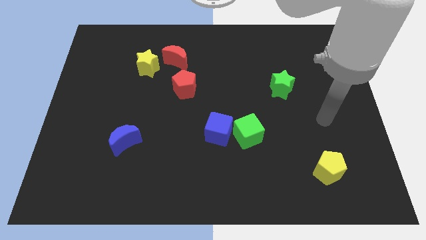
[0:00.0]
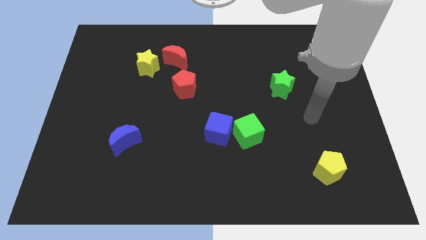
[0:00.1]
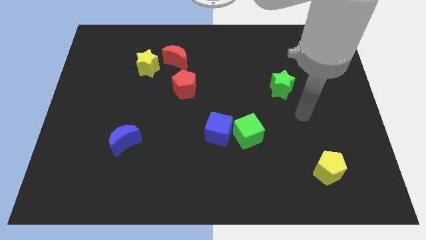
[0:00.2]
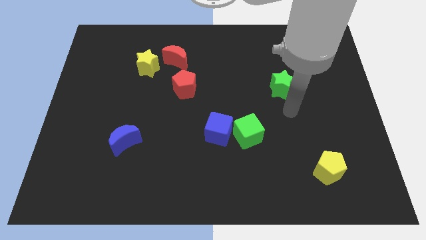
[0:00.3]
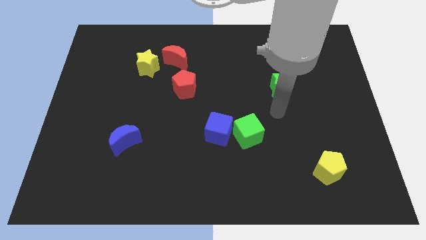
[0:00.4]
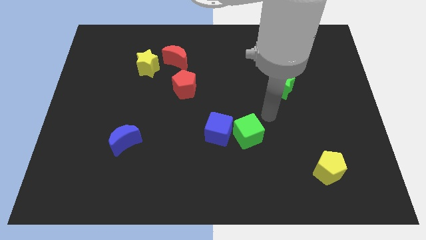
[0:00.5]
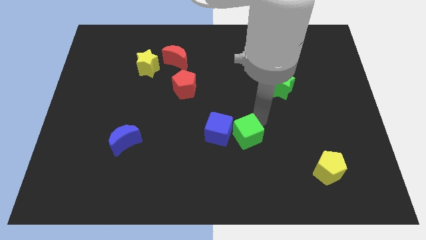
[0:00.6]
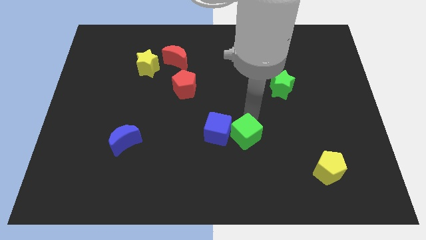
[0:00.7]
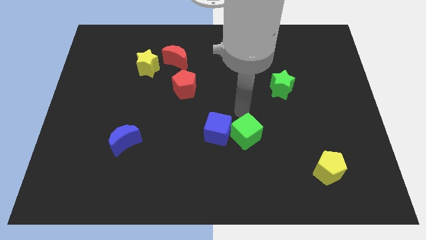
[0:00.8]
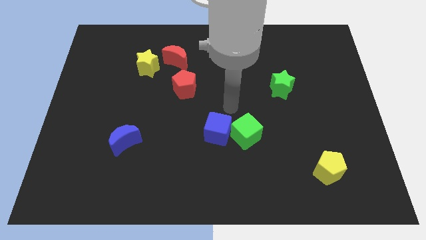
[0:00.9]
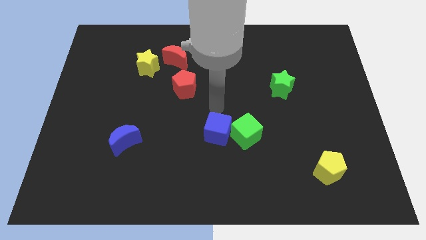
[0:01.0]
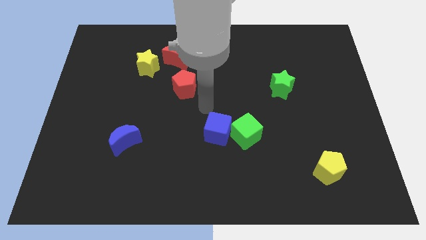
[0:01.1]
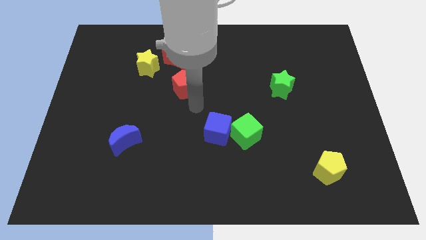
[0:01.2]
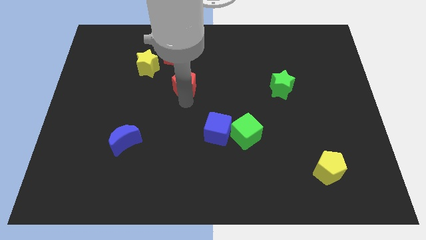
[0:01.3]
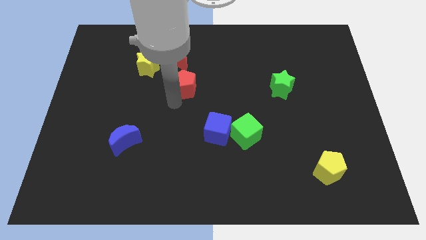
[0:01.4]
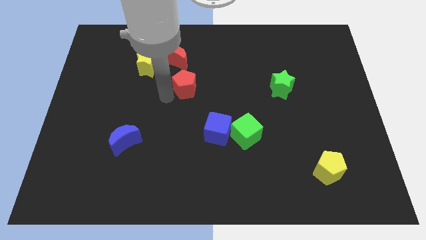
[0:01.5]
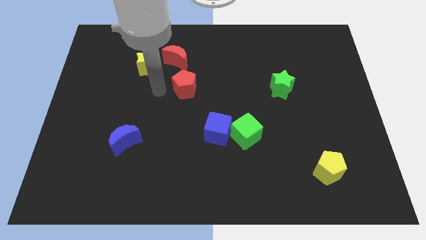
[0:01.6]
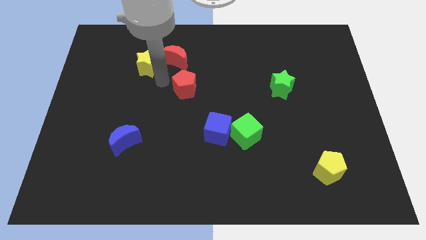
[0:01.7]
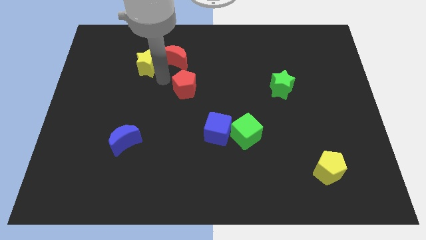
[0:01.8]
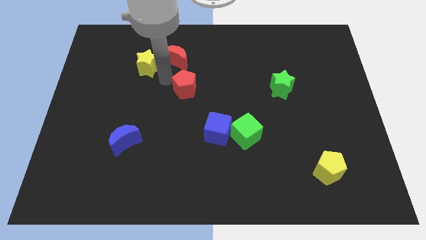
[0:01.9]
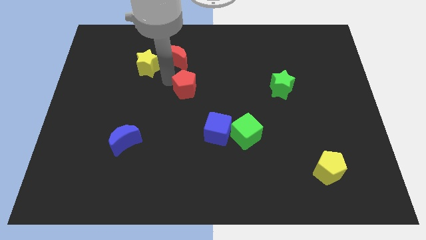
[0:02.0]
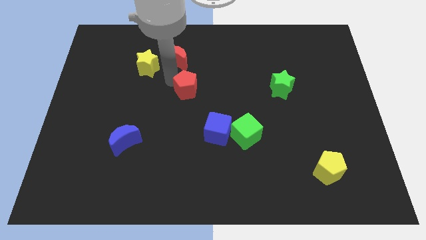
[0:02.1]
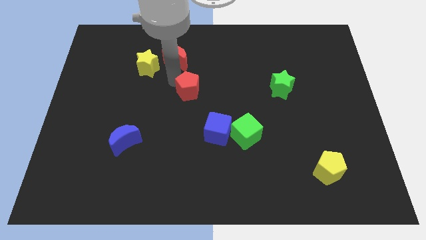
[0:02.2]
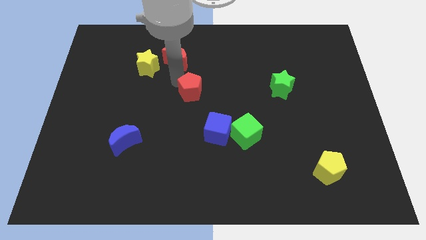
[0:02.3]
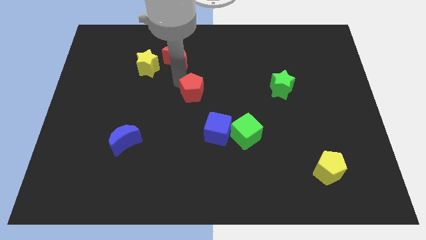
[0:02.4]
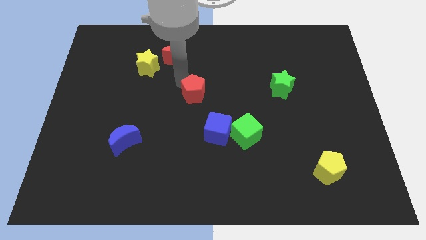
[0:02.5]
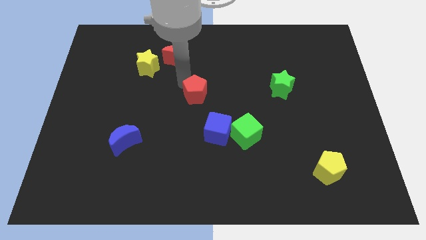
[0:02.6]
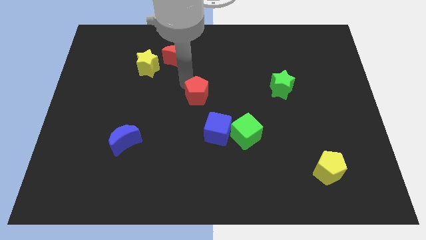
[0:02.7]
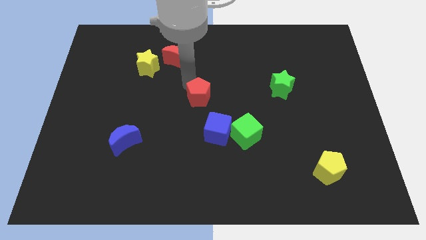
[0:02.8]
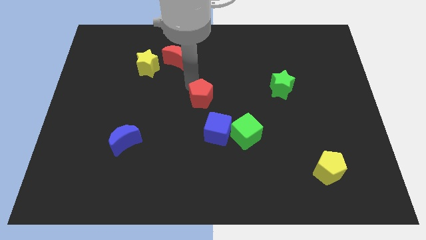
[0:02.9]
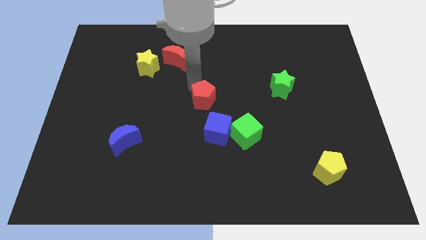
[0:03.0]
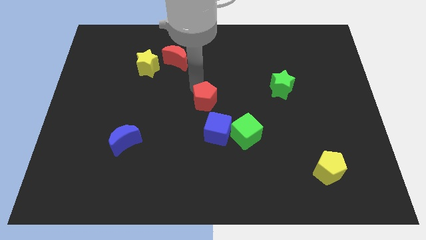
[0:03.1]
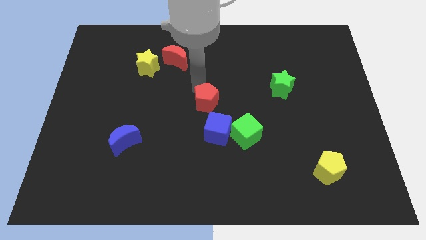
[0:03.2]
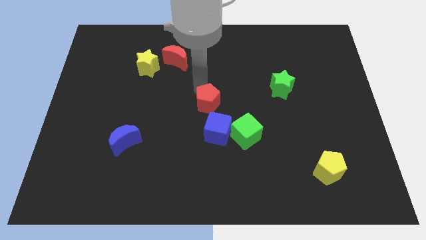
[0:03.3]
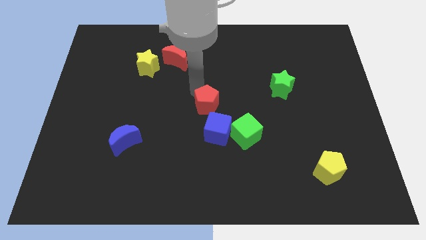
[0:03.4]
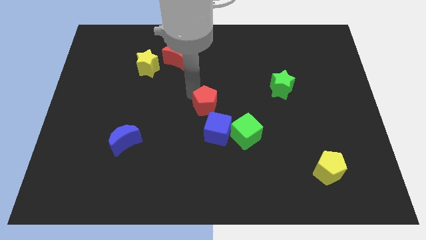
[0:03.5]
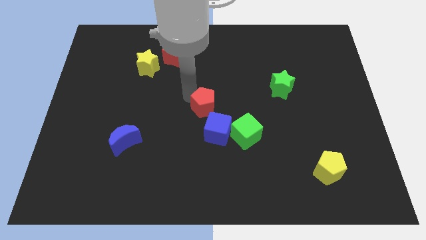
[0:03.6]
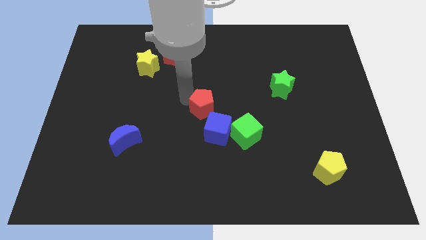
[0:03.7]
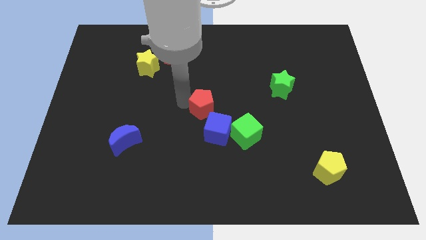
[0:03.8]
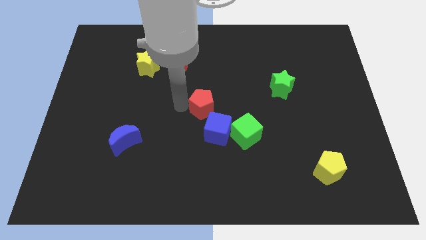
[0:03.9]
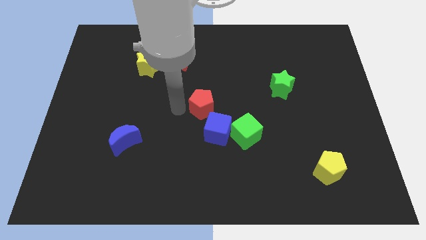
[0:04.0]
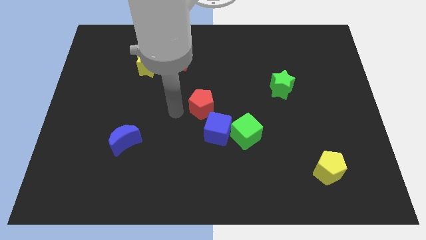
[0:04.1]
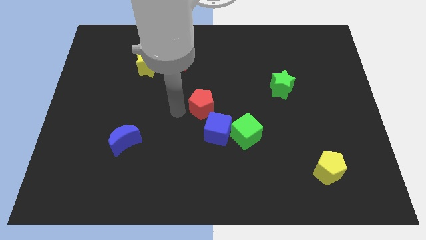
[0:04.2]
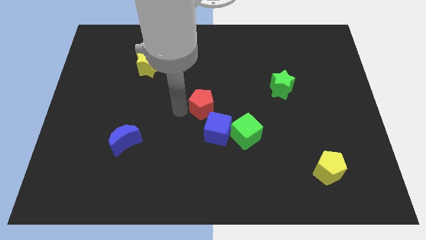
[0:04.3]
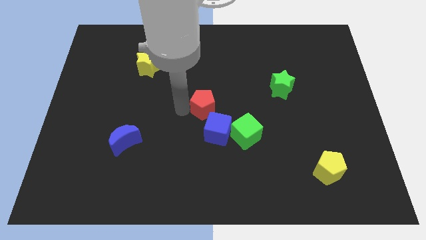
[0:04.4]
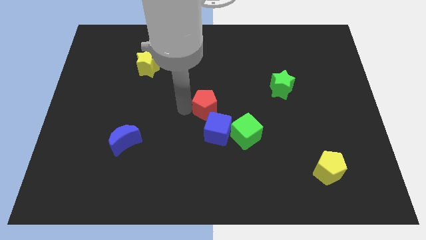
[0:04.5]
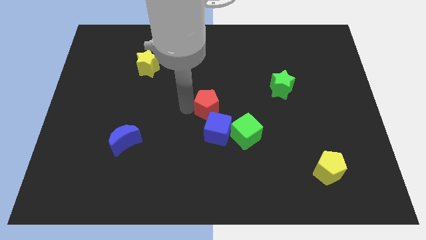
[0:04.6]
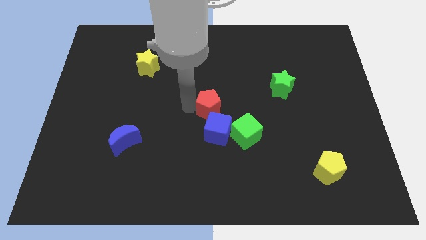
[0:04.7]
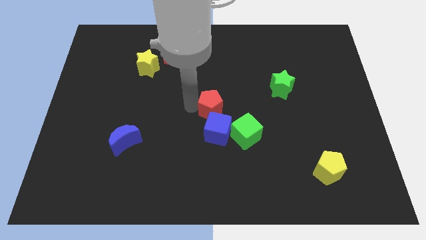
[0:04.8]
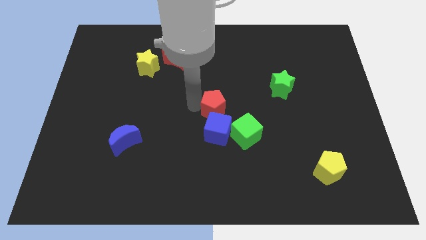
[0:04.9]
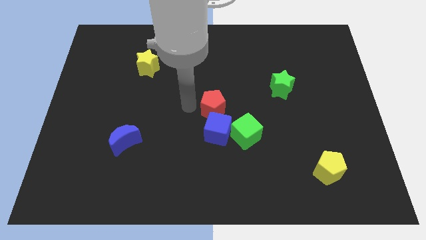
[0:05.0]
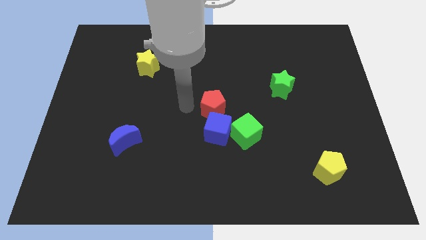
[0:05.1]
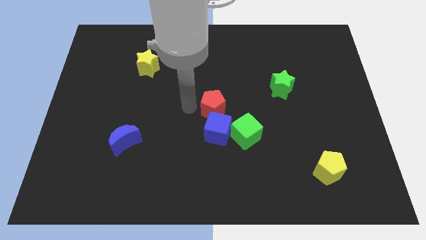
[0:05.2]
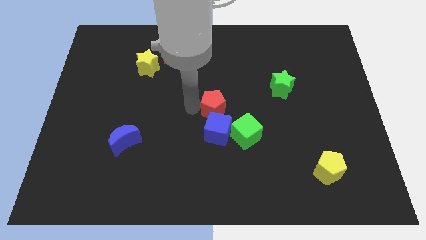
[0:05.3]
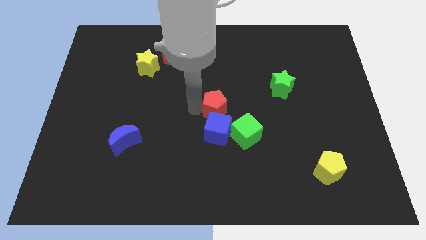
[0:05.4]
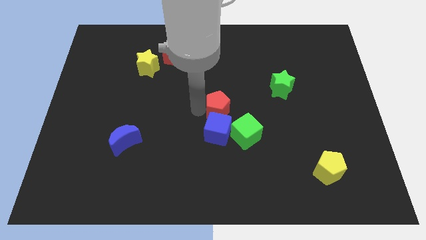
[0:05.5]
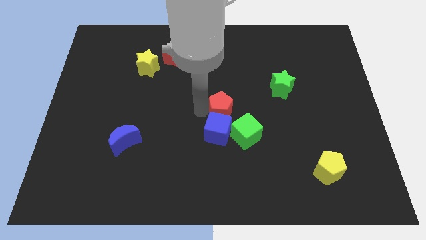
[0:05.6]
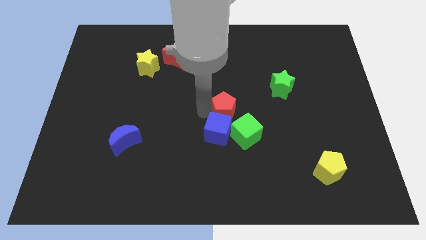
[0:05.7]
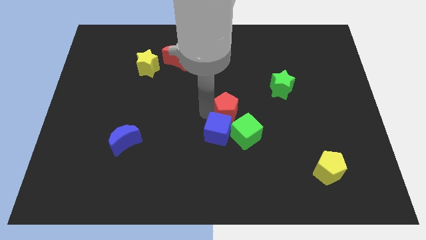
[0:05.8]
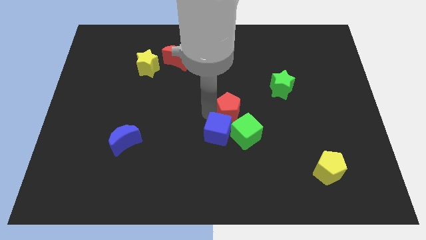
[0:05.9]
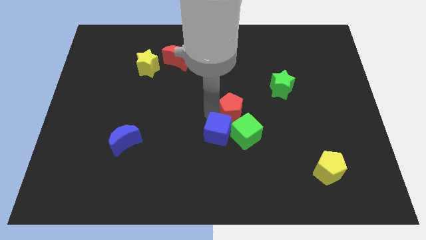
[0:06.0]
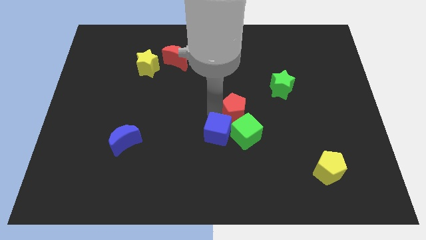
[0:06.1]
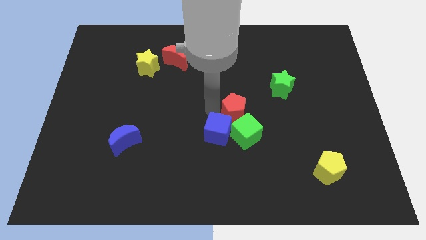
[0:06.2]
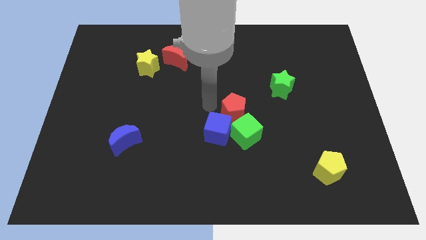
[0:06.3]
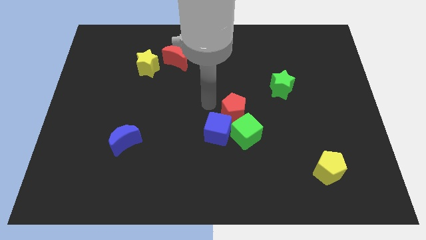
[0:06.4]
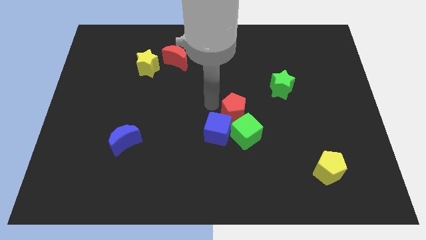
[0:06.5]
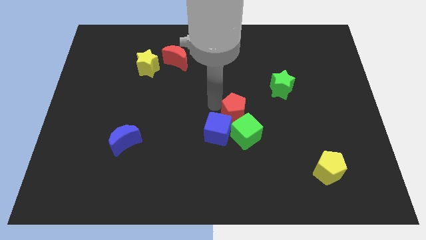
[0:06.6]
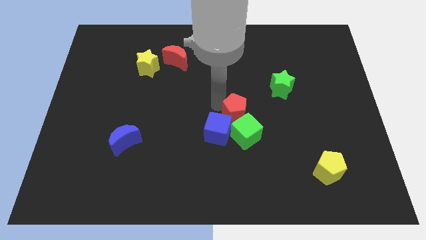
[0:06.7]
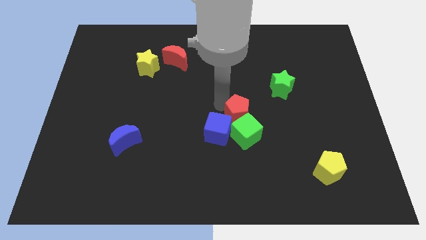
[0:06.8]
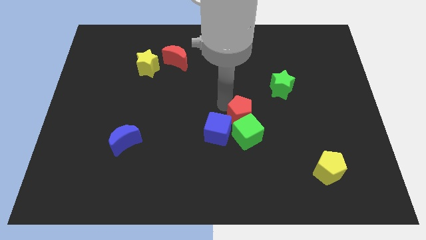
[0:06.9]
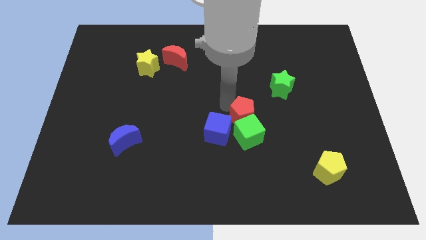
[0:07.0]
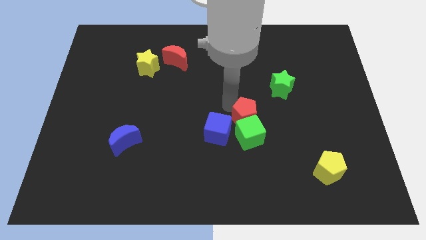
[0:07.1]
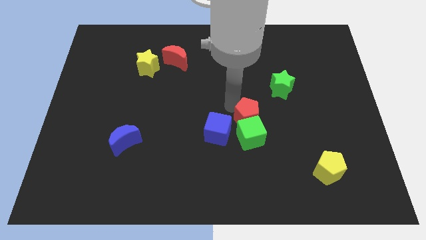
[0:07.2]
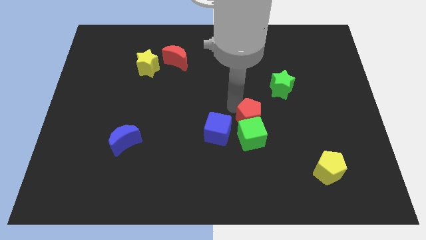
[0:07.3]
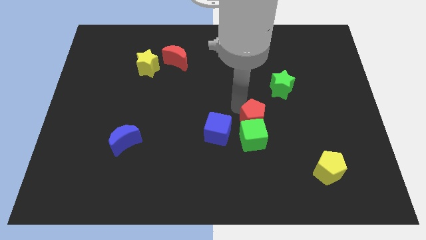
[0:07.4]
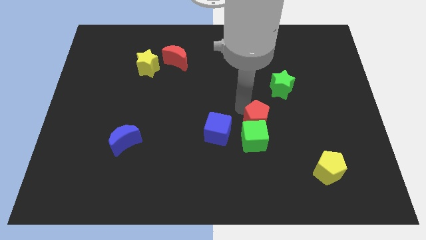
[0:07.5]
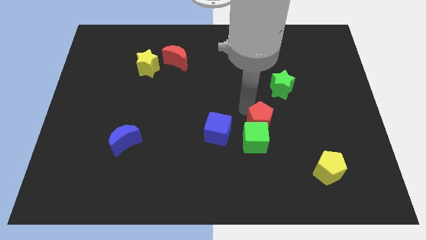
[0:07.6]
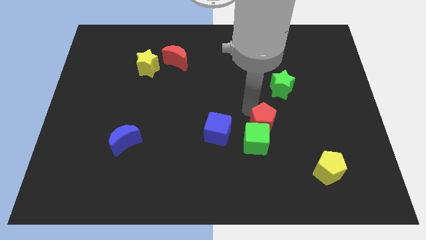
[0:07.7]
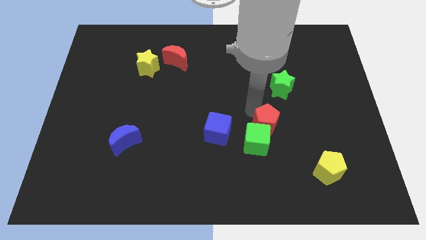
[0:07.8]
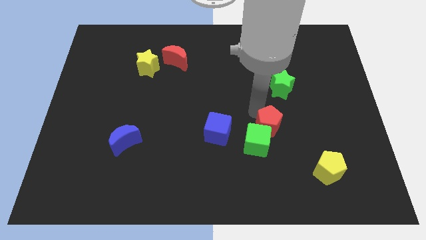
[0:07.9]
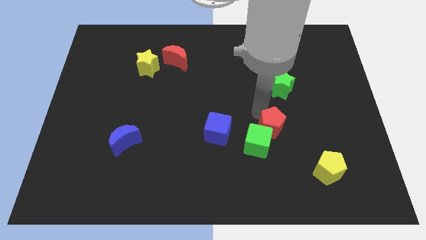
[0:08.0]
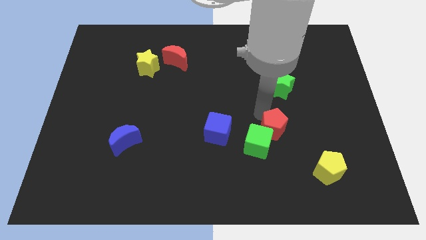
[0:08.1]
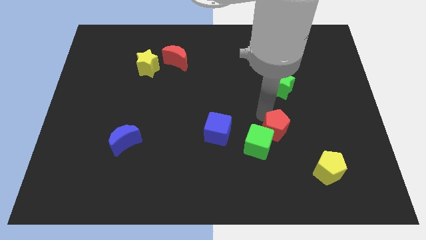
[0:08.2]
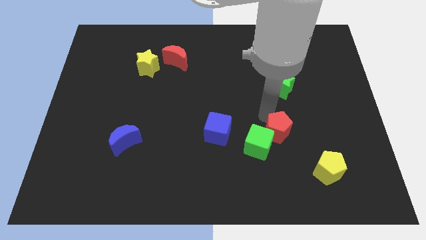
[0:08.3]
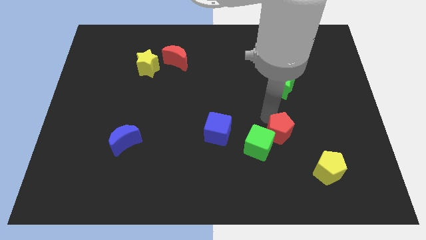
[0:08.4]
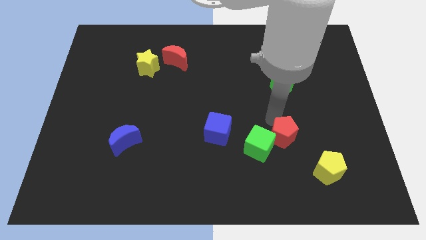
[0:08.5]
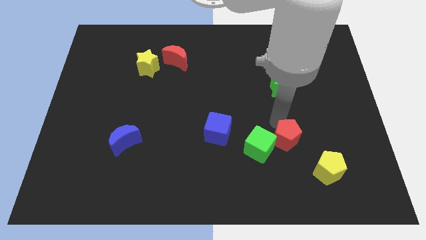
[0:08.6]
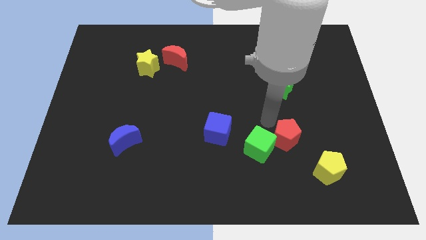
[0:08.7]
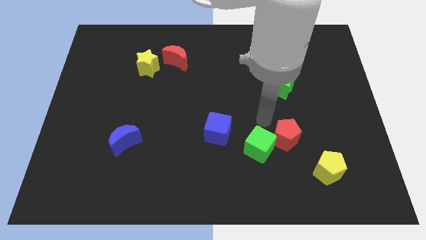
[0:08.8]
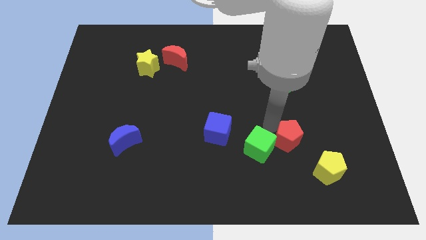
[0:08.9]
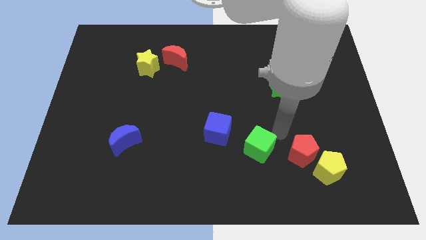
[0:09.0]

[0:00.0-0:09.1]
put the red pentagon close to the yellow pentagon
